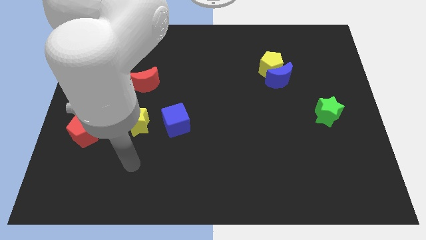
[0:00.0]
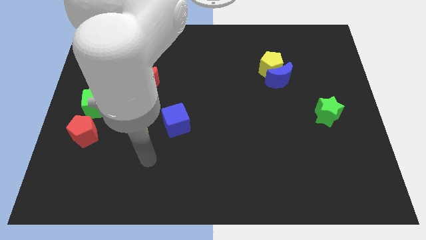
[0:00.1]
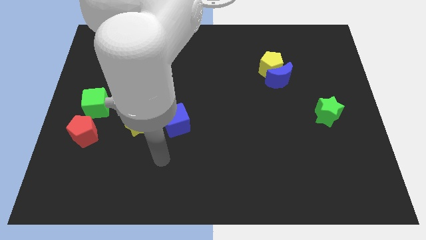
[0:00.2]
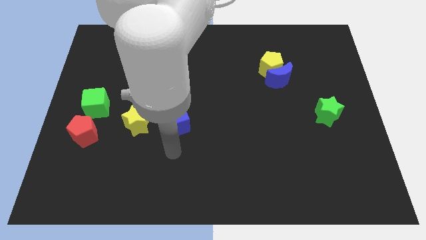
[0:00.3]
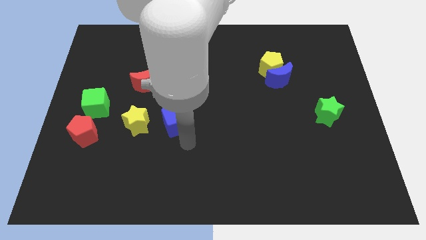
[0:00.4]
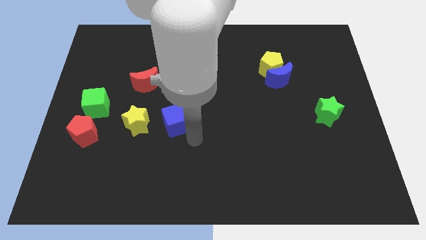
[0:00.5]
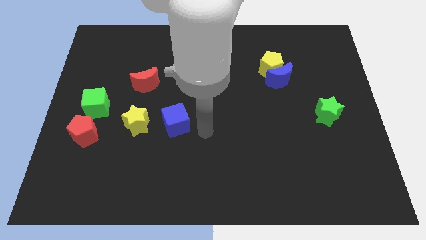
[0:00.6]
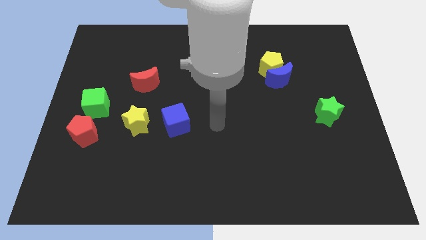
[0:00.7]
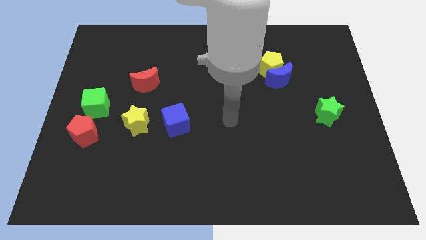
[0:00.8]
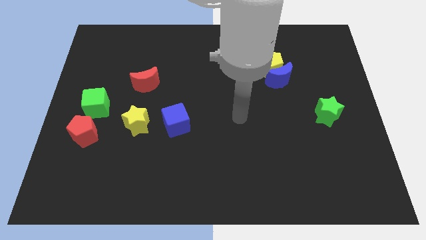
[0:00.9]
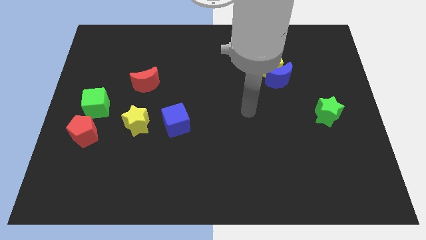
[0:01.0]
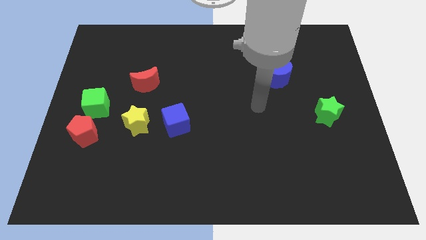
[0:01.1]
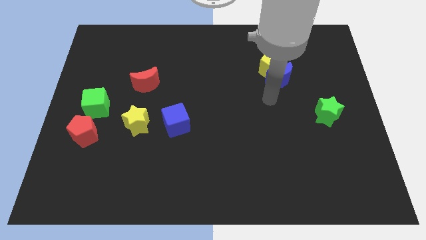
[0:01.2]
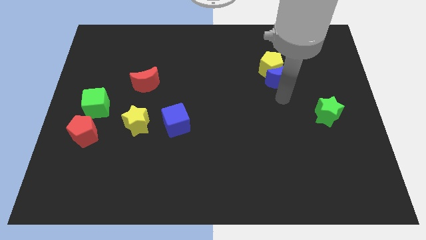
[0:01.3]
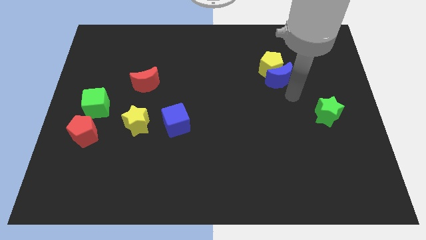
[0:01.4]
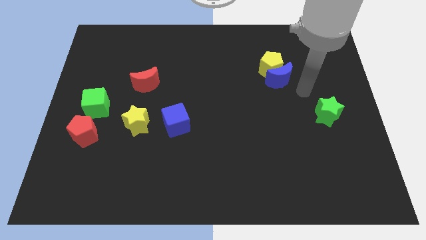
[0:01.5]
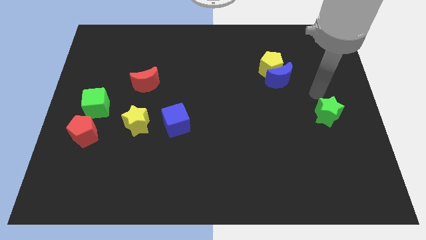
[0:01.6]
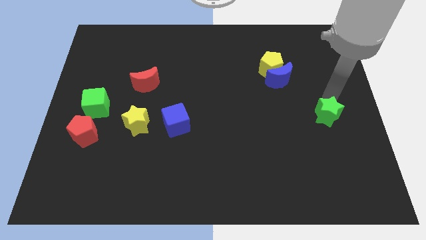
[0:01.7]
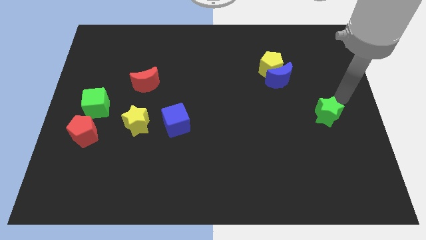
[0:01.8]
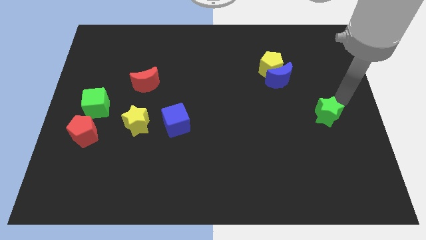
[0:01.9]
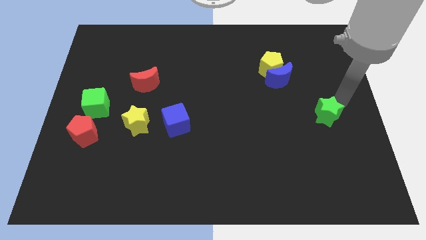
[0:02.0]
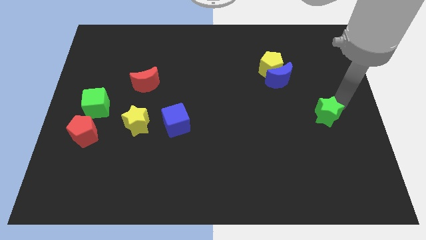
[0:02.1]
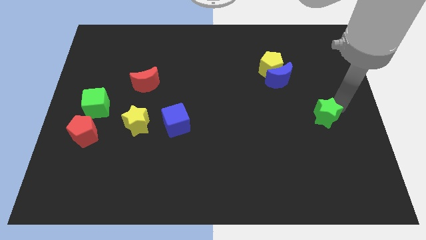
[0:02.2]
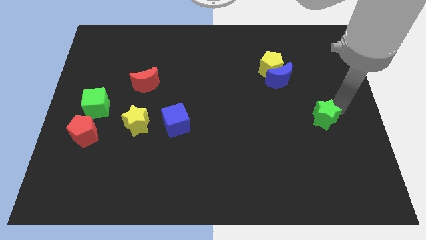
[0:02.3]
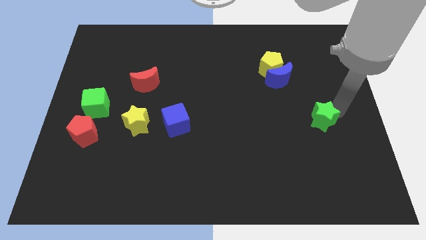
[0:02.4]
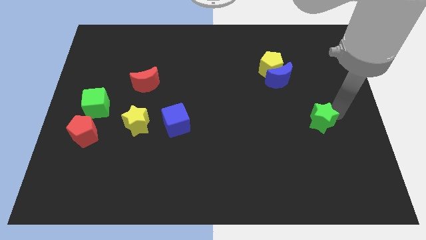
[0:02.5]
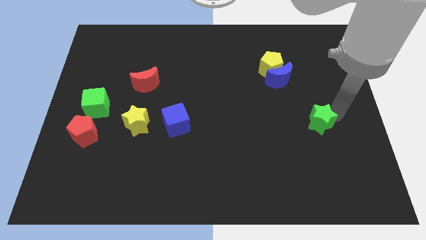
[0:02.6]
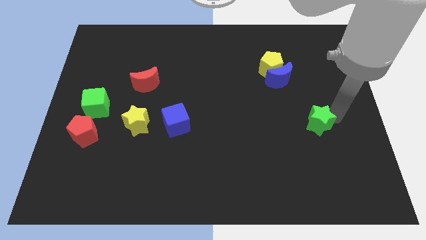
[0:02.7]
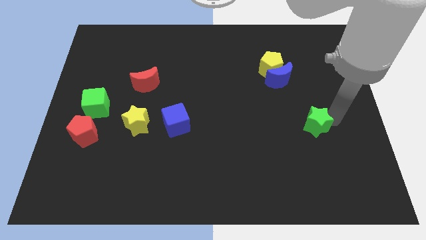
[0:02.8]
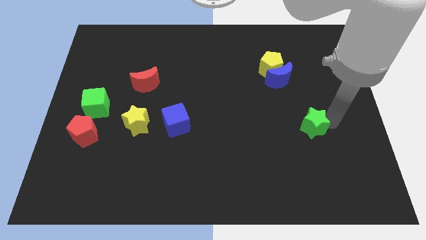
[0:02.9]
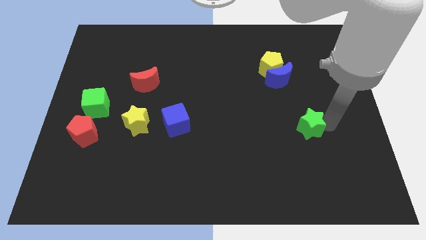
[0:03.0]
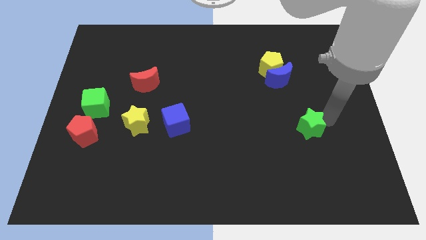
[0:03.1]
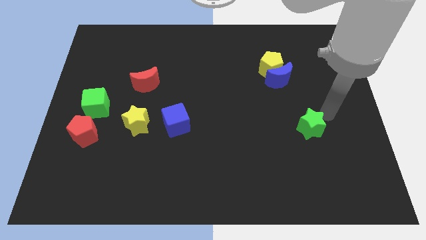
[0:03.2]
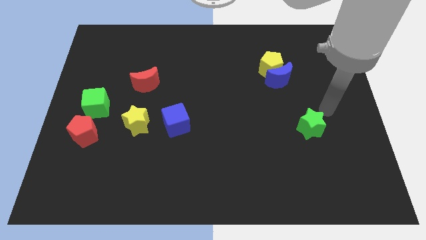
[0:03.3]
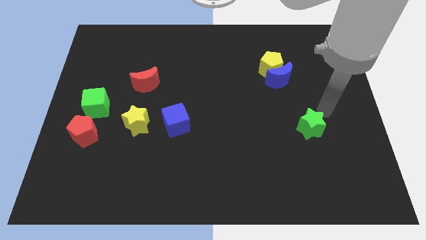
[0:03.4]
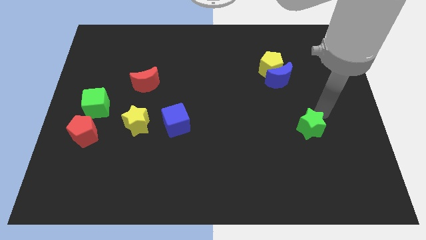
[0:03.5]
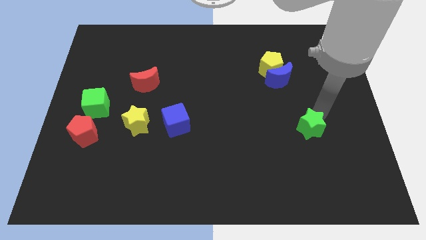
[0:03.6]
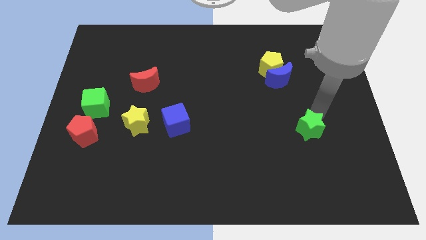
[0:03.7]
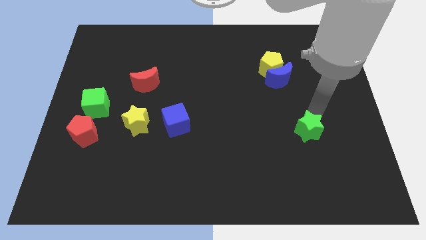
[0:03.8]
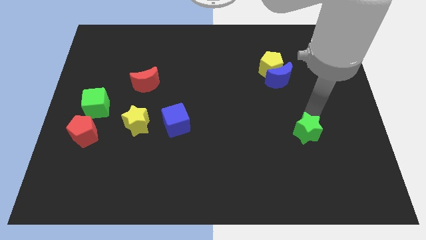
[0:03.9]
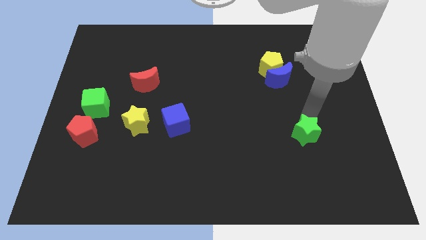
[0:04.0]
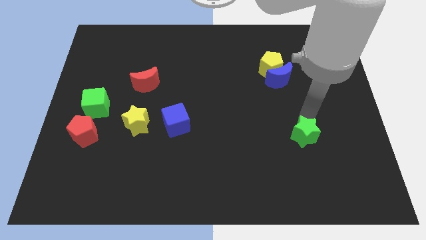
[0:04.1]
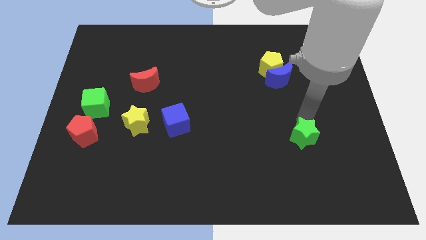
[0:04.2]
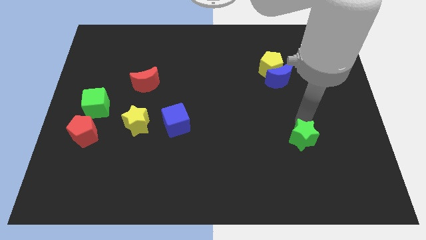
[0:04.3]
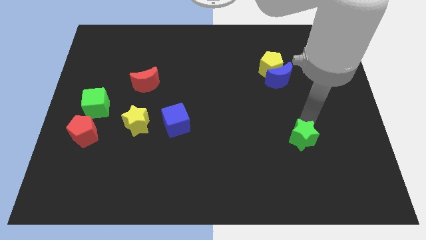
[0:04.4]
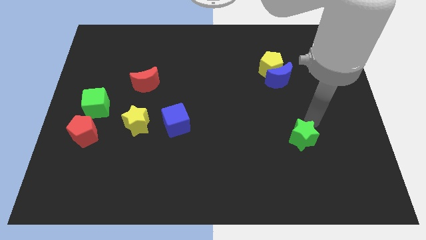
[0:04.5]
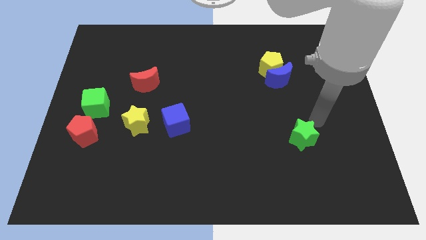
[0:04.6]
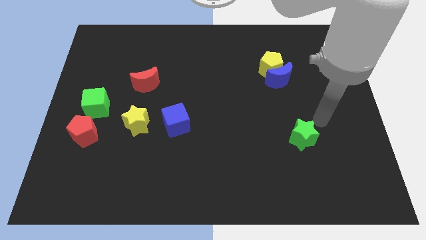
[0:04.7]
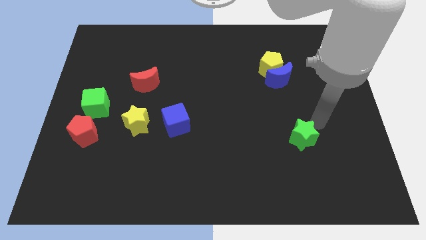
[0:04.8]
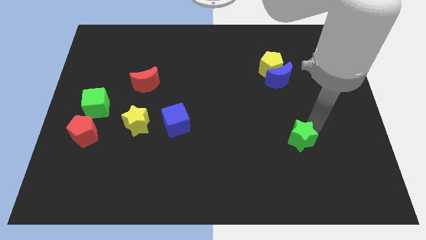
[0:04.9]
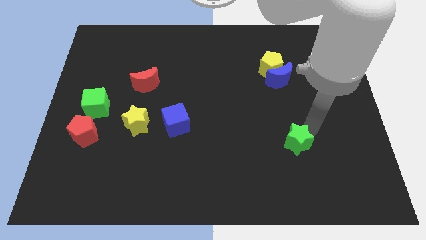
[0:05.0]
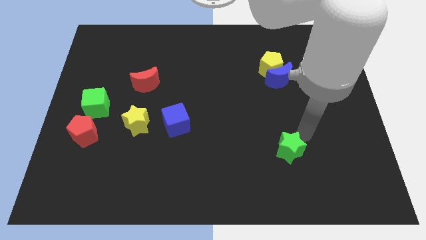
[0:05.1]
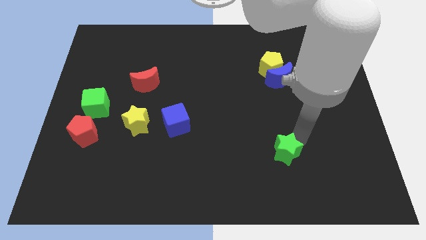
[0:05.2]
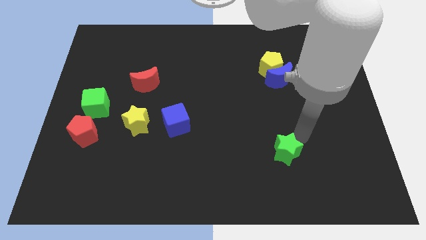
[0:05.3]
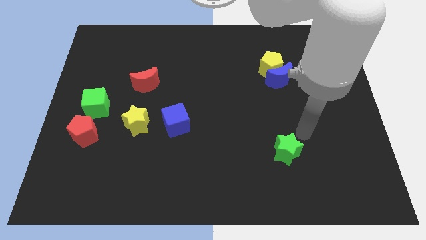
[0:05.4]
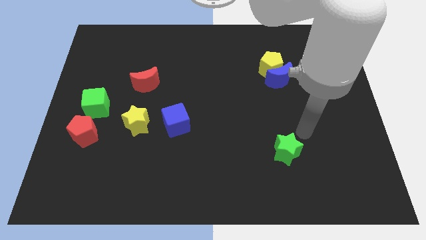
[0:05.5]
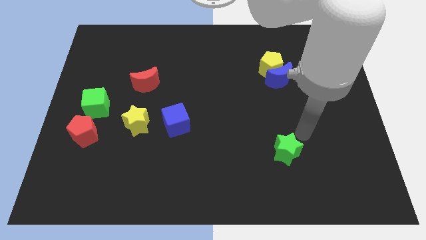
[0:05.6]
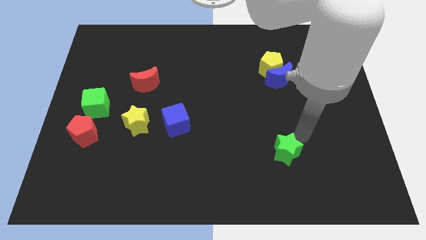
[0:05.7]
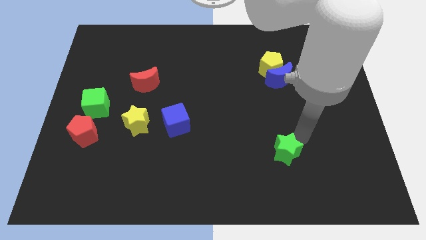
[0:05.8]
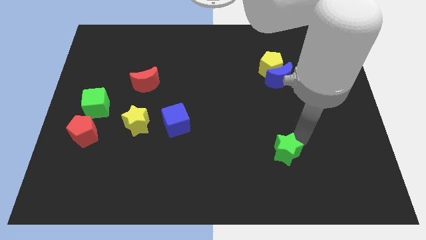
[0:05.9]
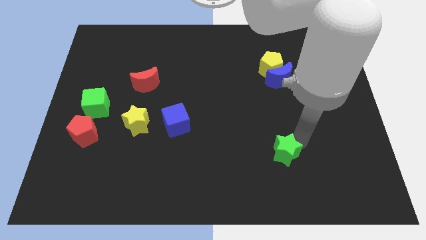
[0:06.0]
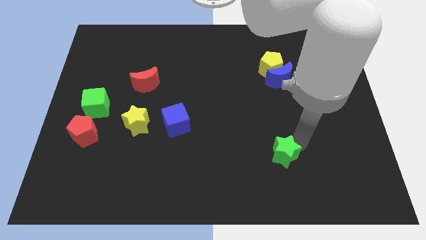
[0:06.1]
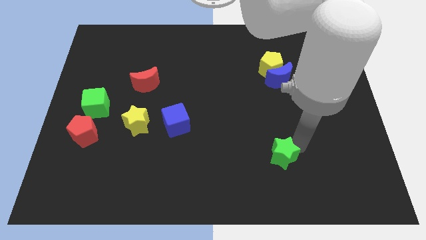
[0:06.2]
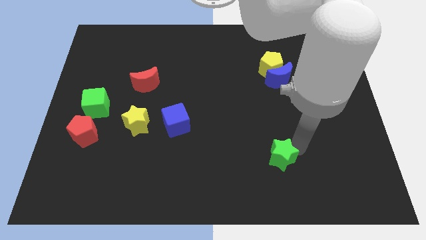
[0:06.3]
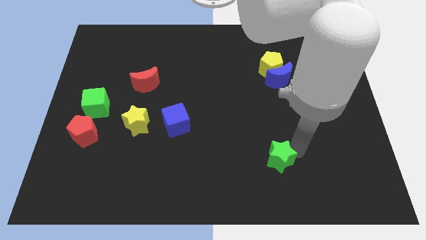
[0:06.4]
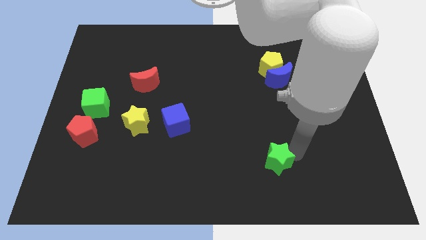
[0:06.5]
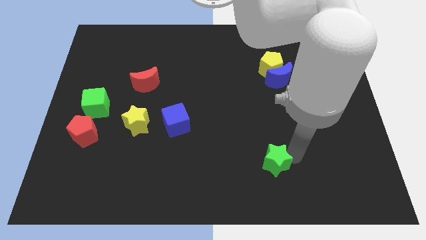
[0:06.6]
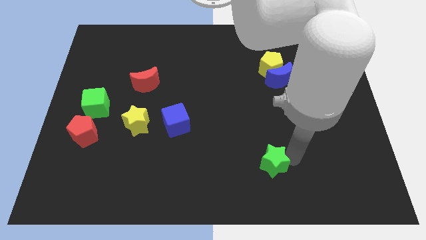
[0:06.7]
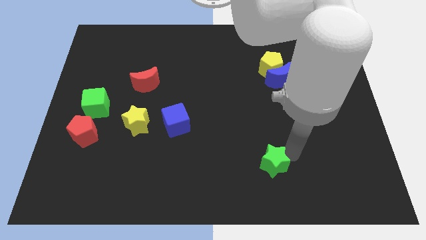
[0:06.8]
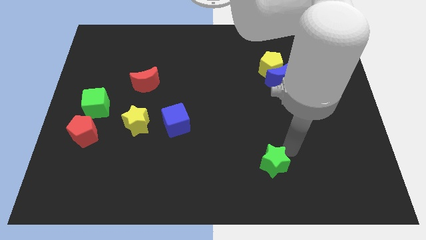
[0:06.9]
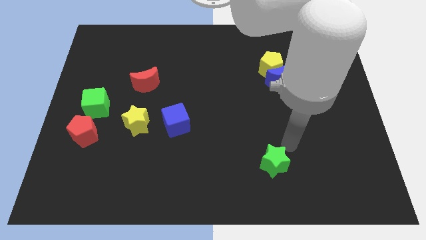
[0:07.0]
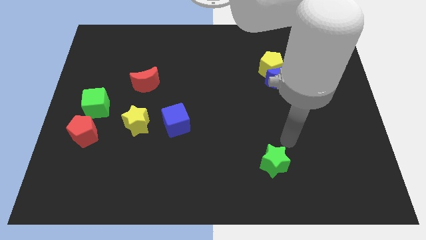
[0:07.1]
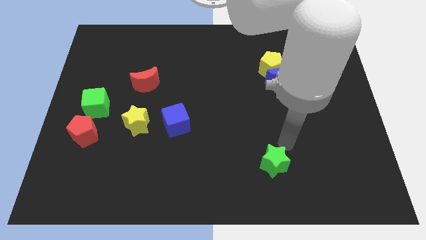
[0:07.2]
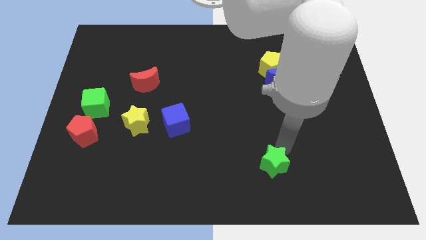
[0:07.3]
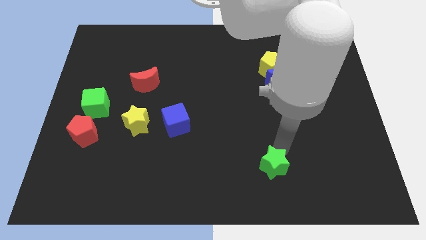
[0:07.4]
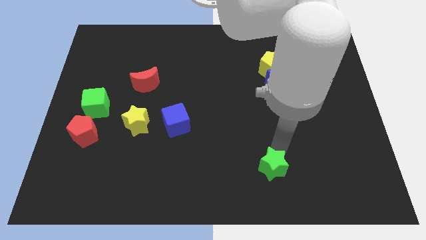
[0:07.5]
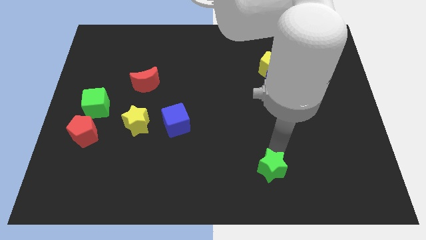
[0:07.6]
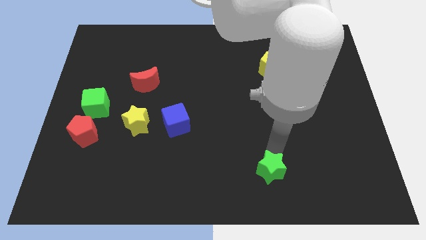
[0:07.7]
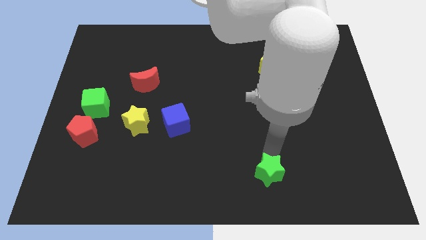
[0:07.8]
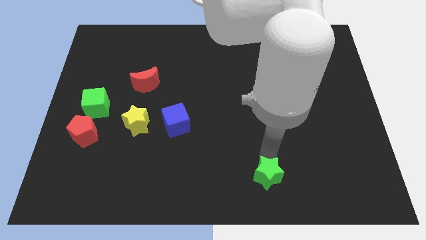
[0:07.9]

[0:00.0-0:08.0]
put the green star to the bottom side
